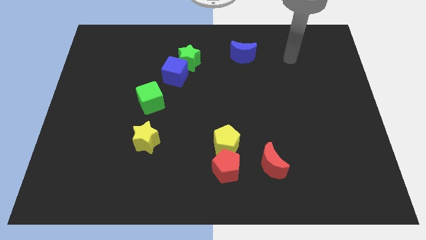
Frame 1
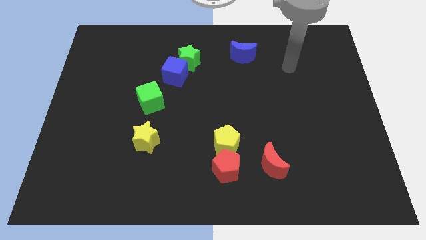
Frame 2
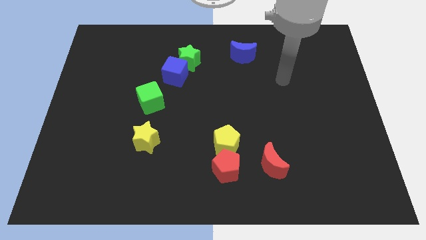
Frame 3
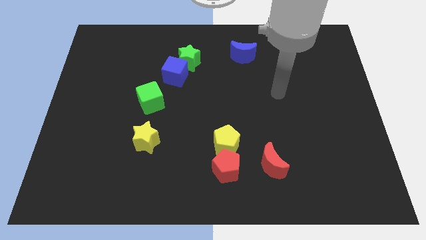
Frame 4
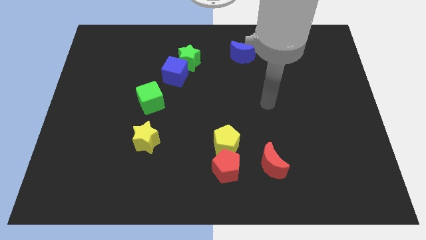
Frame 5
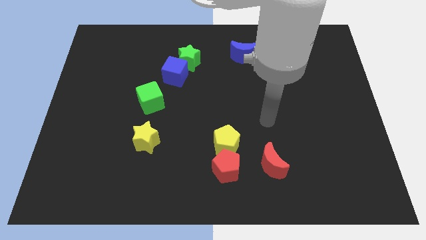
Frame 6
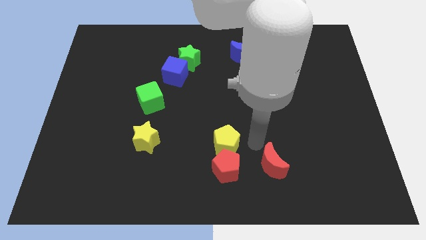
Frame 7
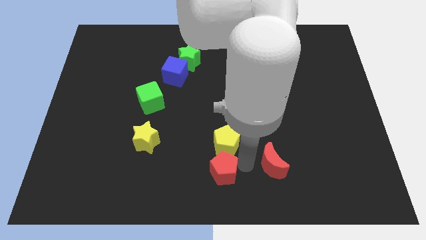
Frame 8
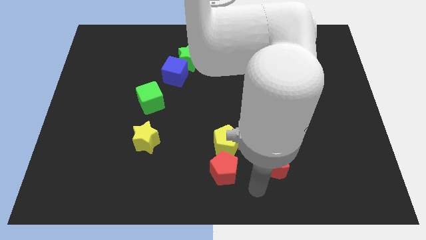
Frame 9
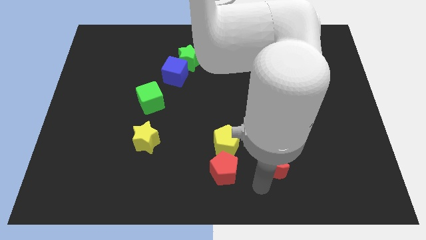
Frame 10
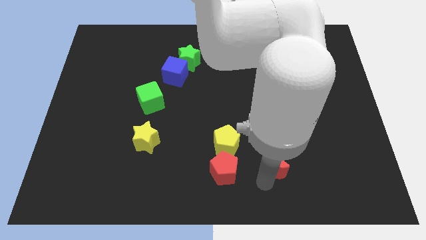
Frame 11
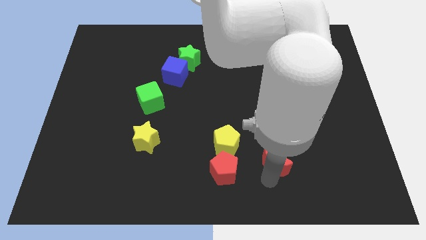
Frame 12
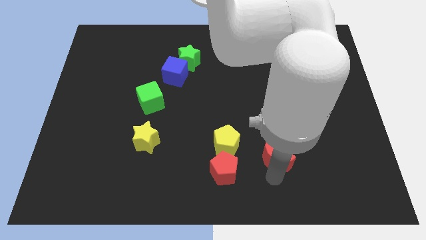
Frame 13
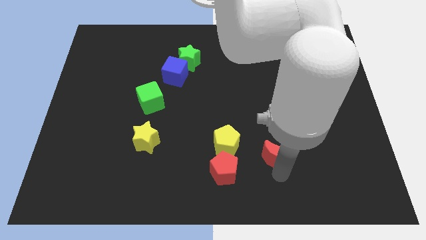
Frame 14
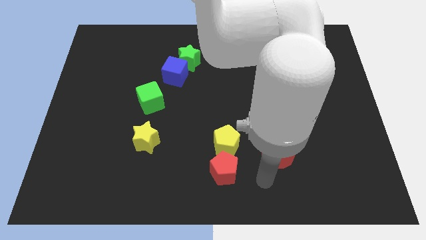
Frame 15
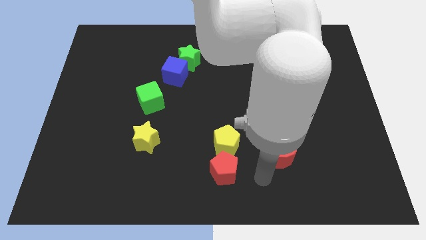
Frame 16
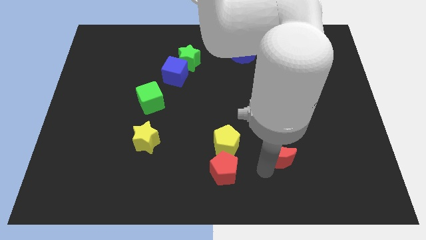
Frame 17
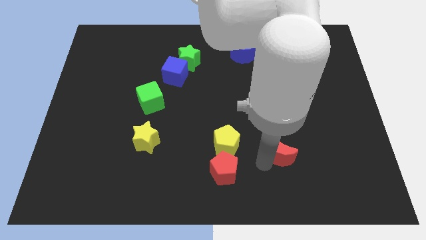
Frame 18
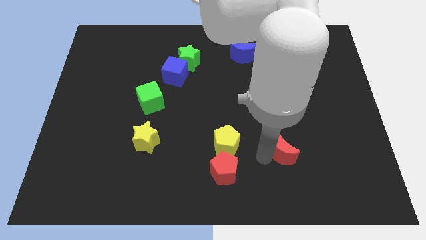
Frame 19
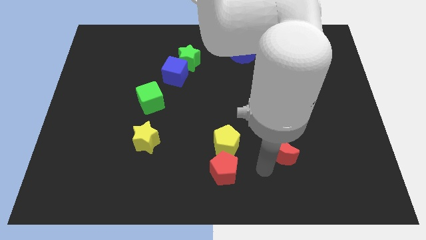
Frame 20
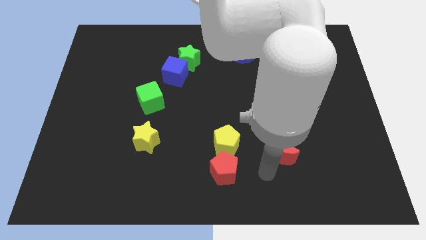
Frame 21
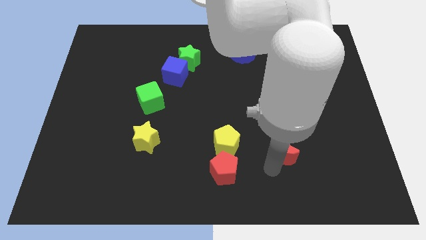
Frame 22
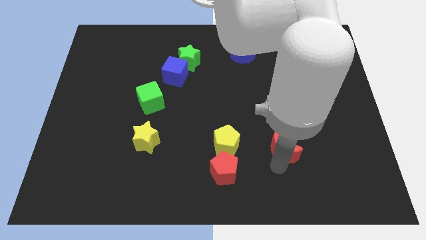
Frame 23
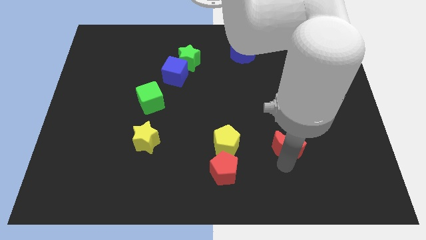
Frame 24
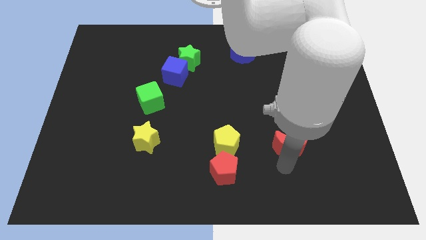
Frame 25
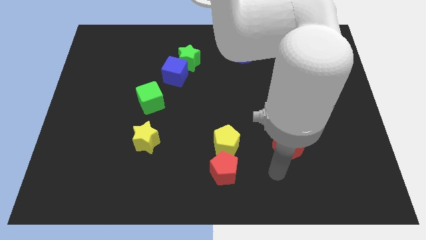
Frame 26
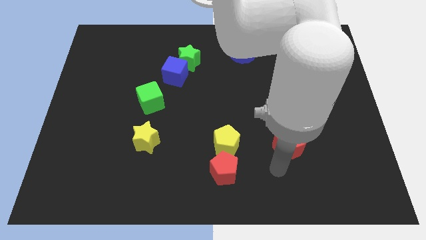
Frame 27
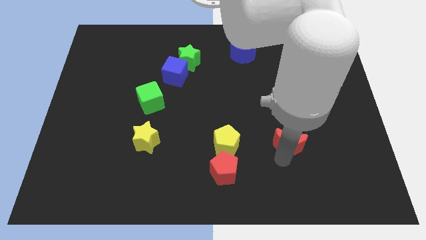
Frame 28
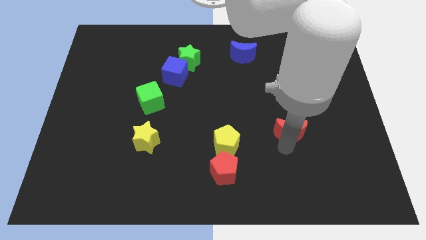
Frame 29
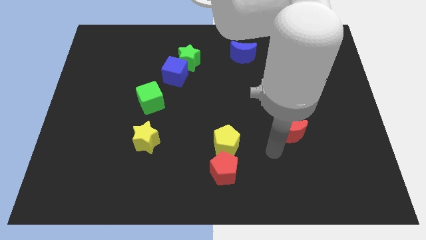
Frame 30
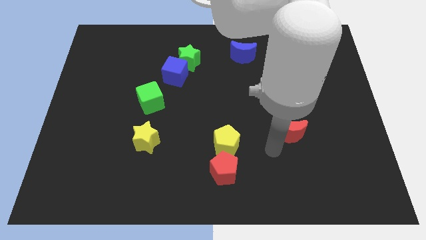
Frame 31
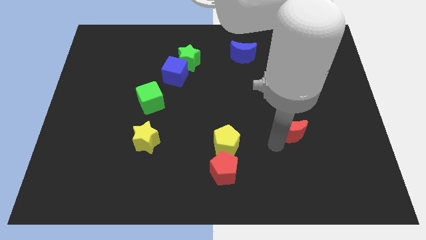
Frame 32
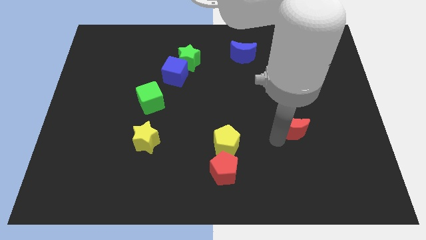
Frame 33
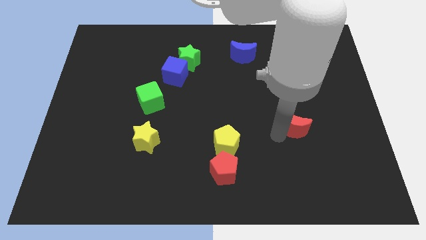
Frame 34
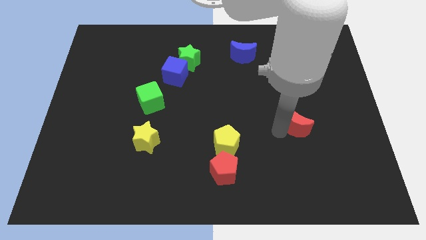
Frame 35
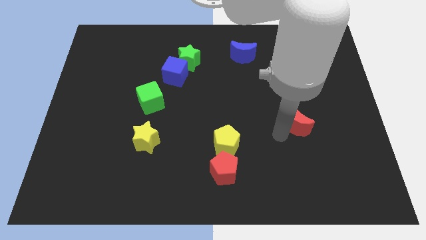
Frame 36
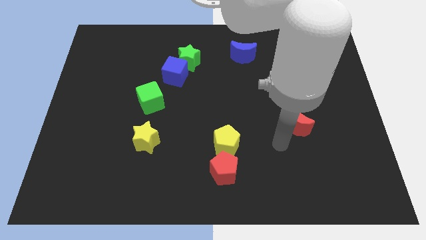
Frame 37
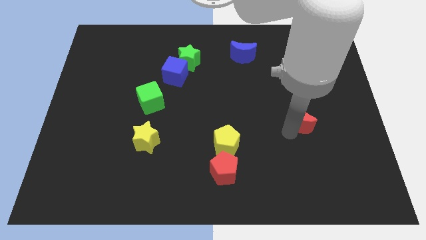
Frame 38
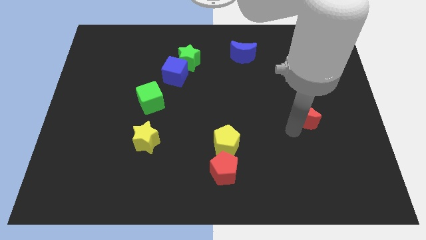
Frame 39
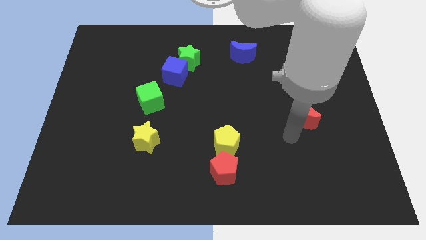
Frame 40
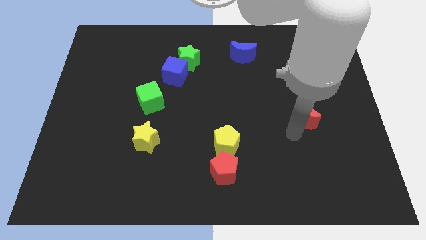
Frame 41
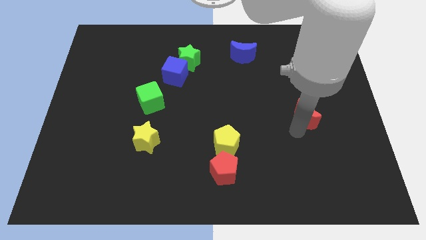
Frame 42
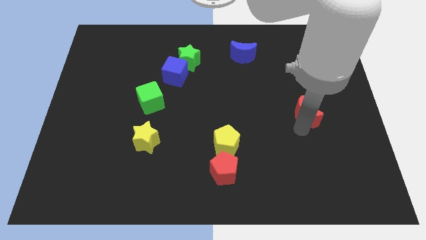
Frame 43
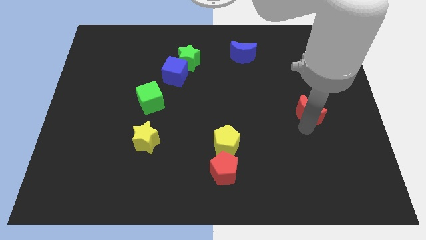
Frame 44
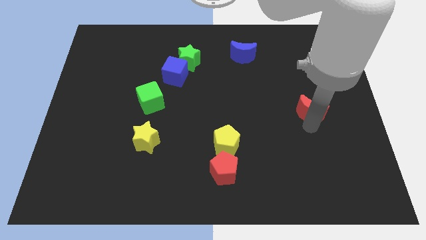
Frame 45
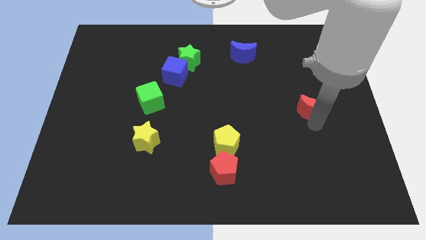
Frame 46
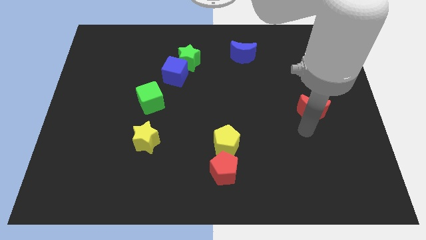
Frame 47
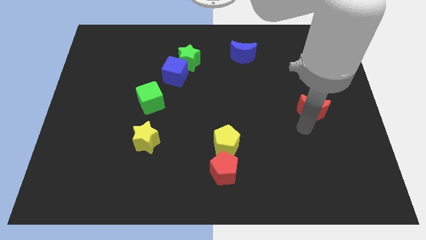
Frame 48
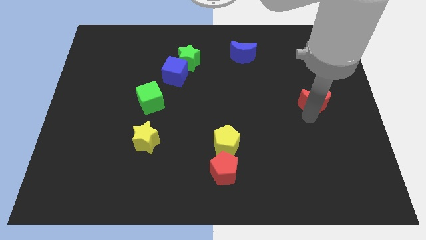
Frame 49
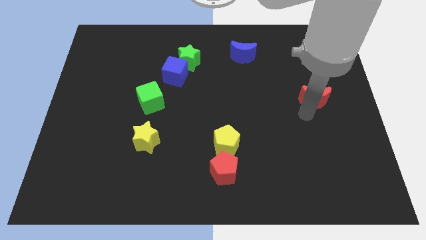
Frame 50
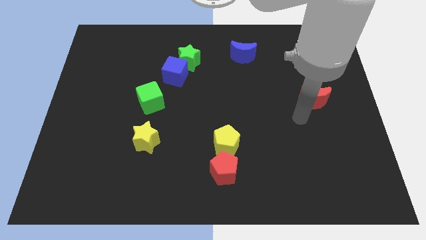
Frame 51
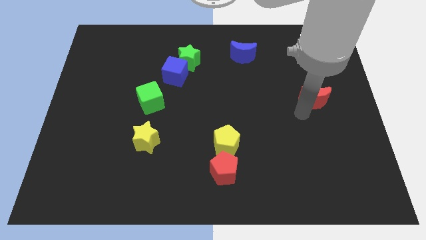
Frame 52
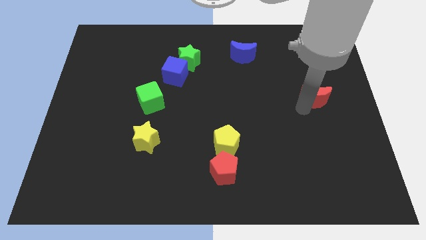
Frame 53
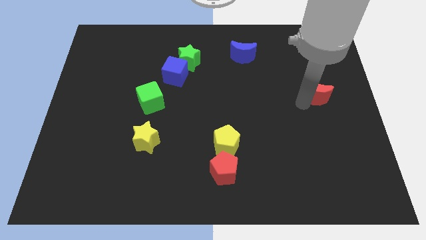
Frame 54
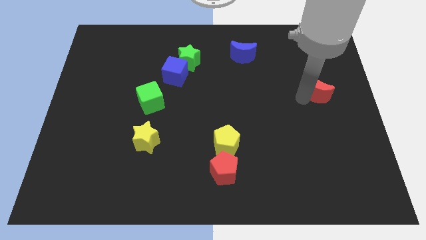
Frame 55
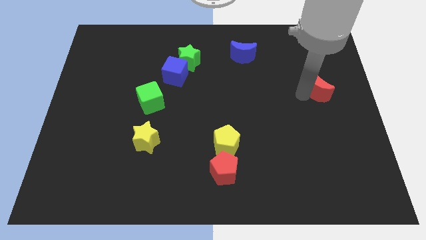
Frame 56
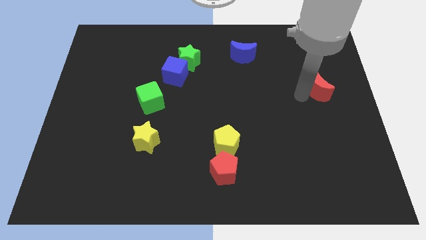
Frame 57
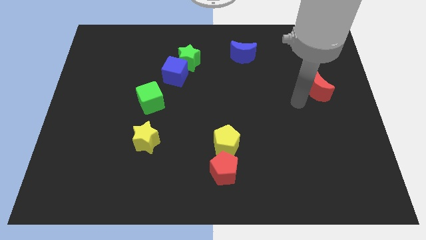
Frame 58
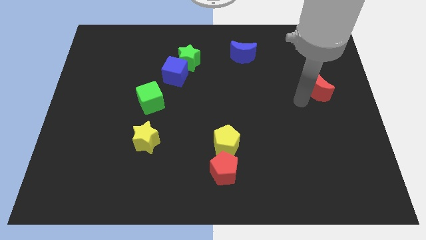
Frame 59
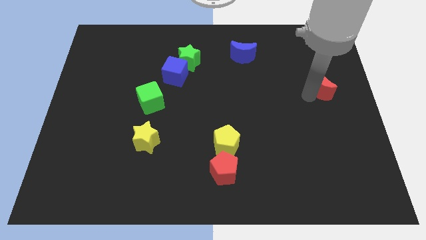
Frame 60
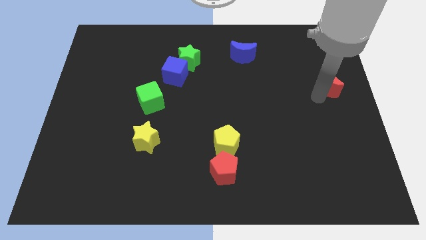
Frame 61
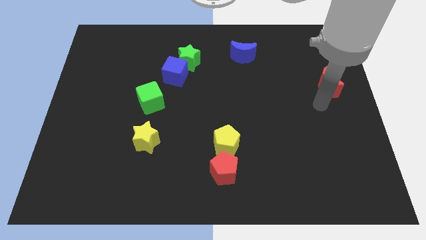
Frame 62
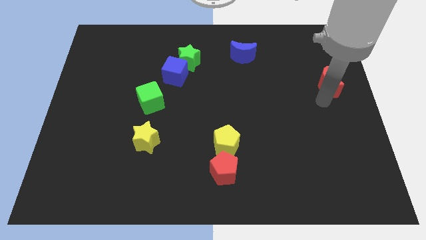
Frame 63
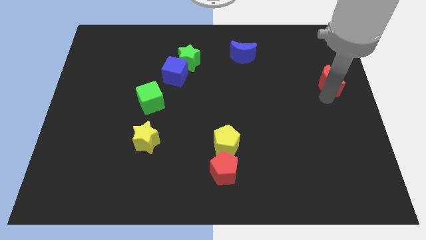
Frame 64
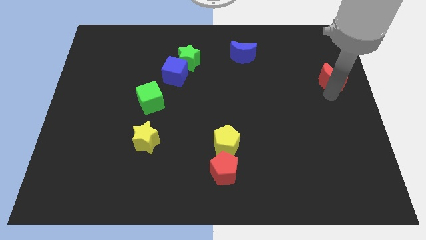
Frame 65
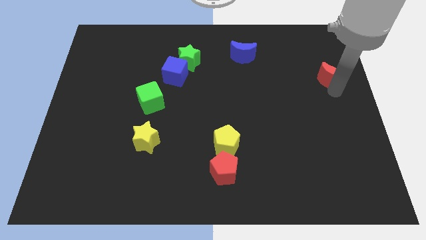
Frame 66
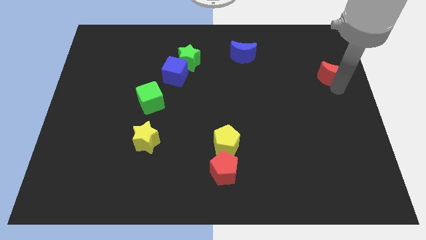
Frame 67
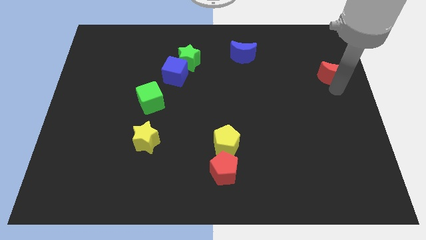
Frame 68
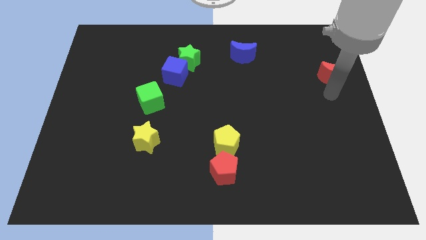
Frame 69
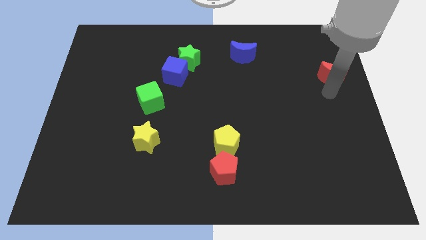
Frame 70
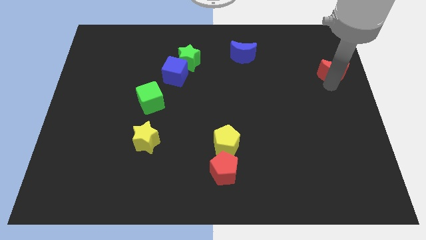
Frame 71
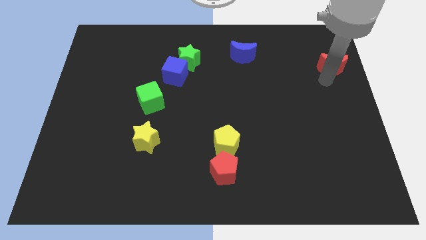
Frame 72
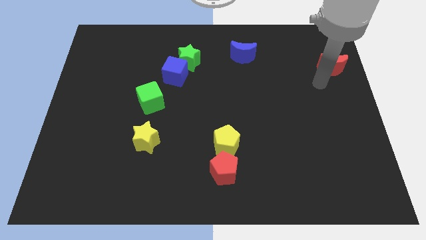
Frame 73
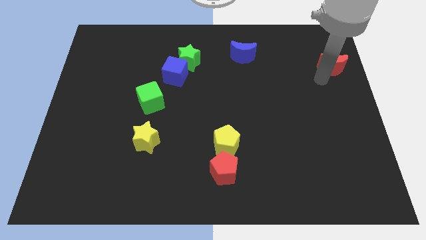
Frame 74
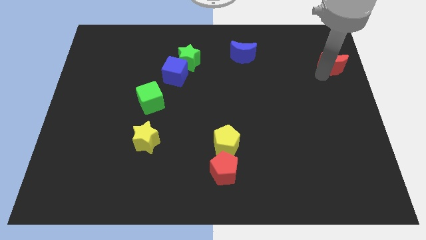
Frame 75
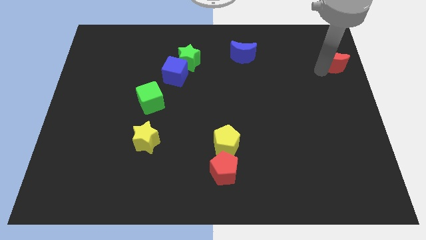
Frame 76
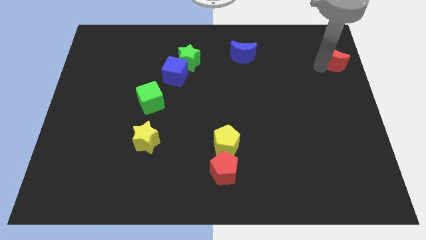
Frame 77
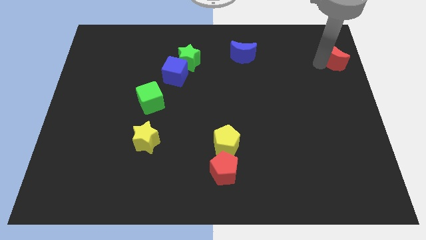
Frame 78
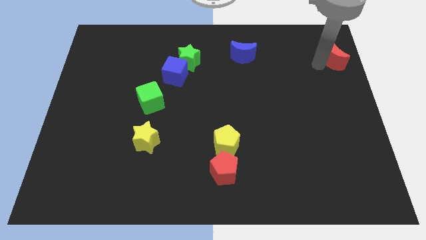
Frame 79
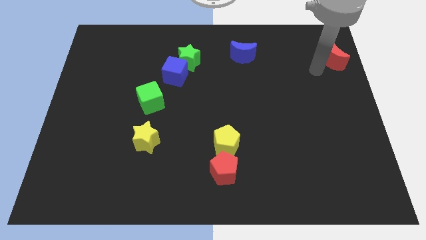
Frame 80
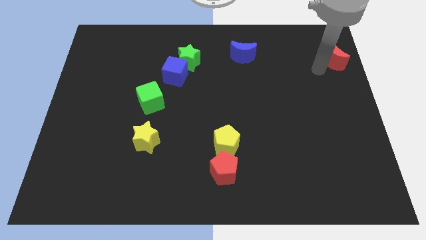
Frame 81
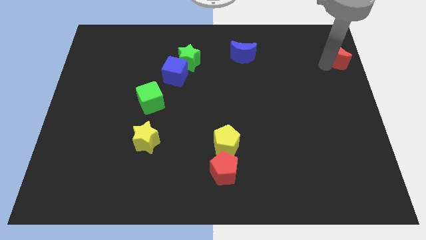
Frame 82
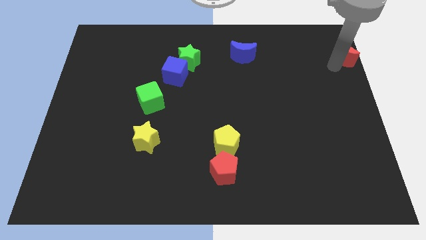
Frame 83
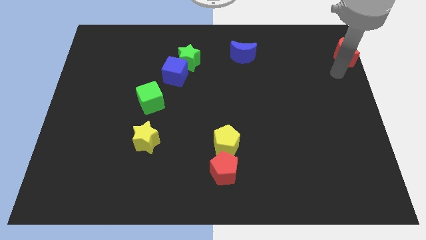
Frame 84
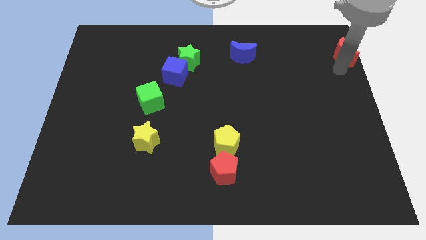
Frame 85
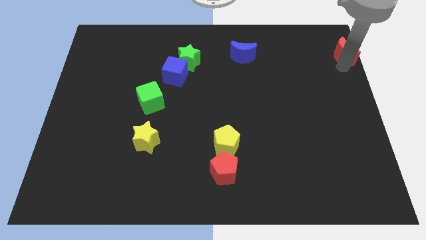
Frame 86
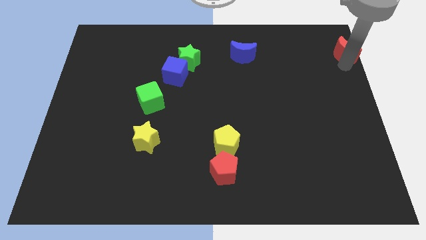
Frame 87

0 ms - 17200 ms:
move the red moon to the top right
